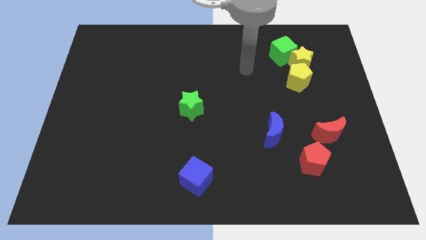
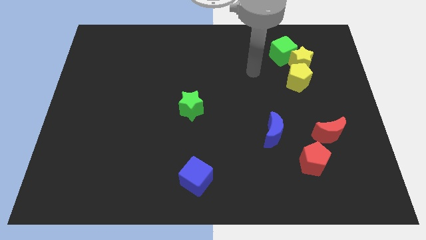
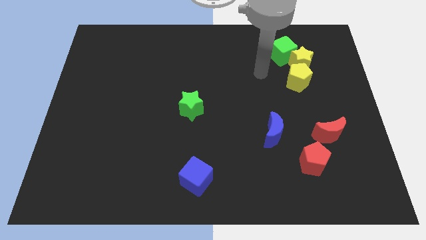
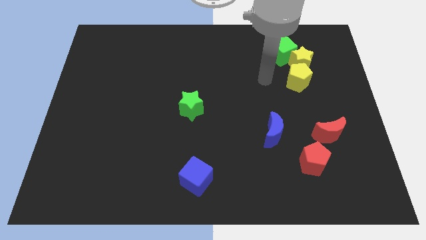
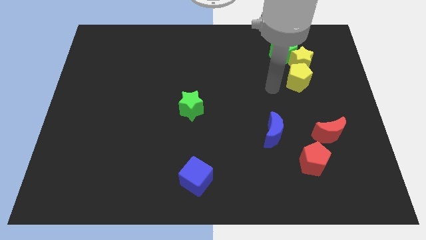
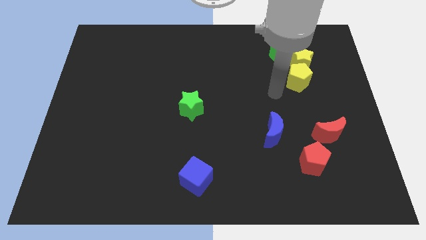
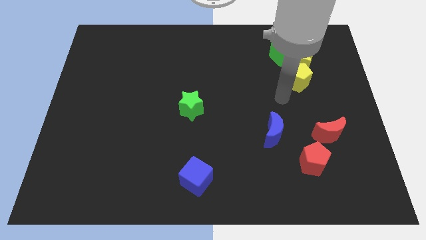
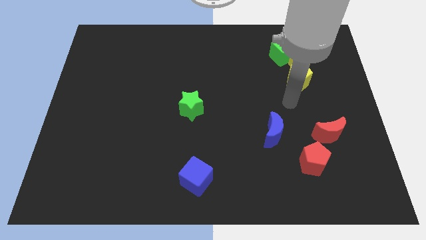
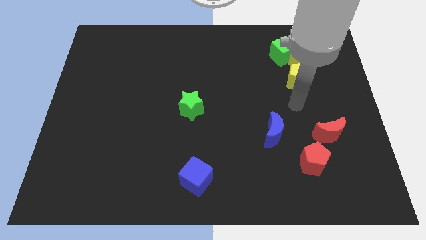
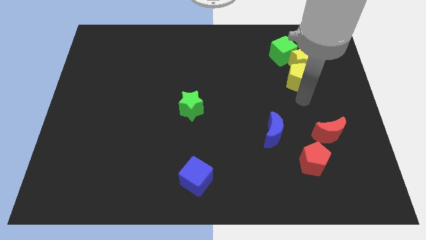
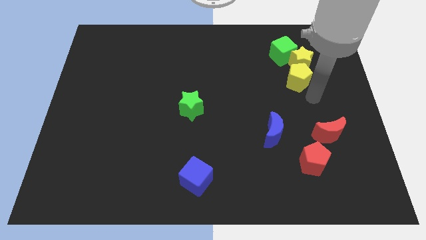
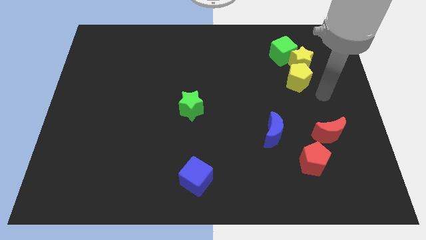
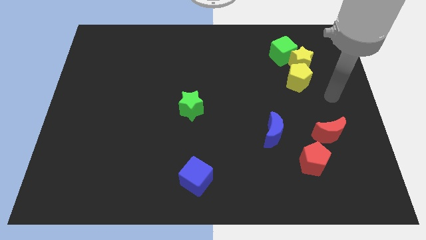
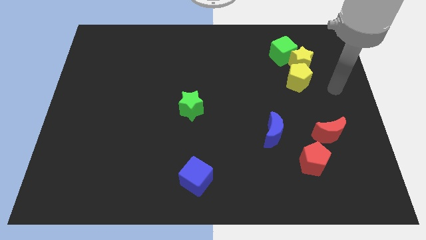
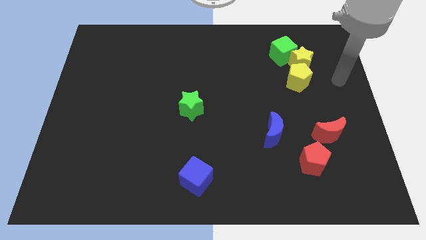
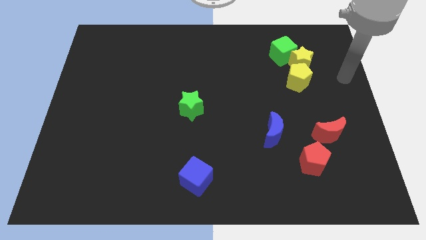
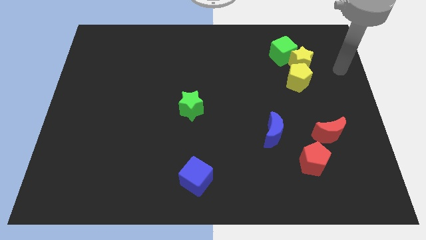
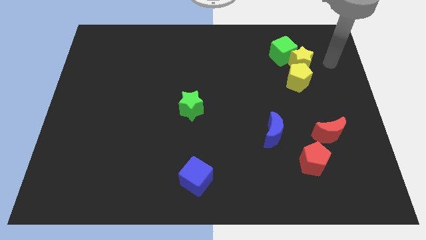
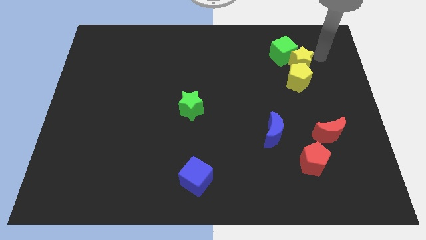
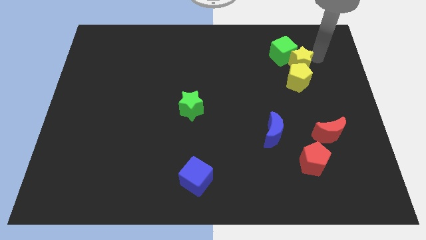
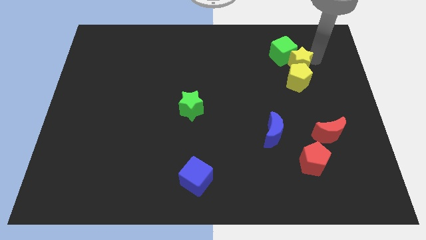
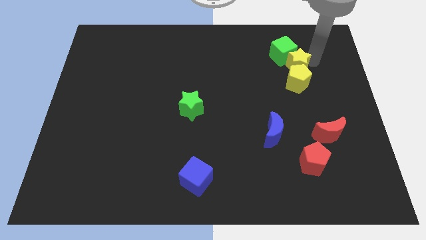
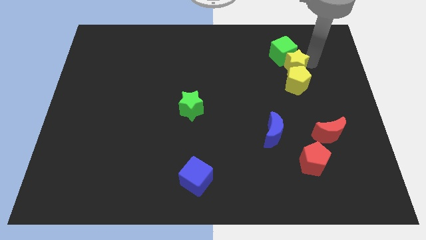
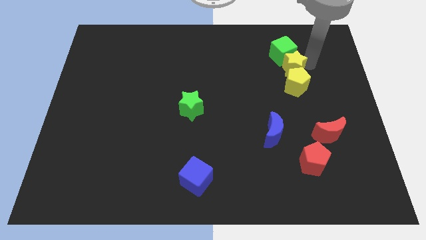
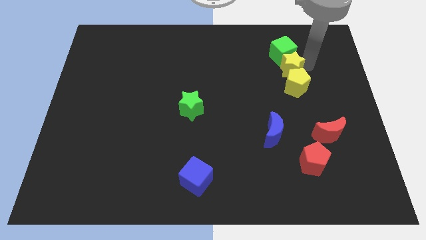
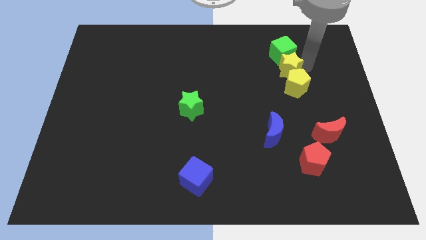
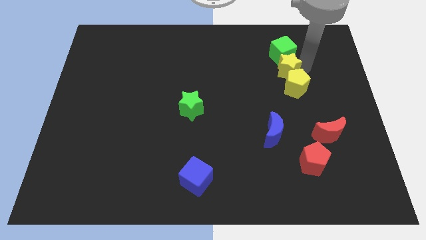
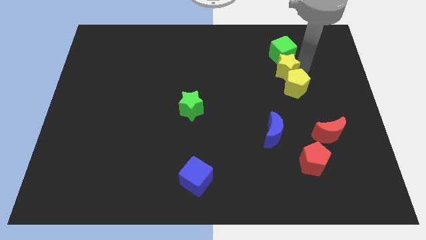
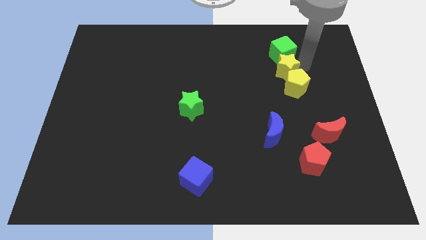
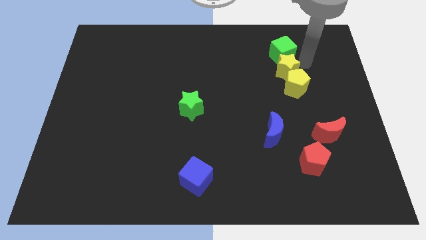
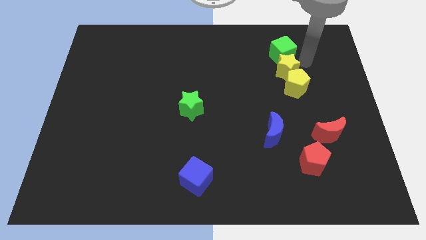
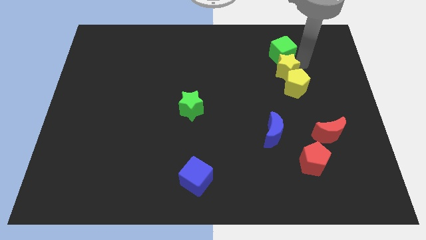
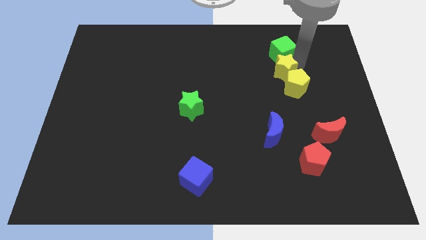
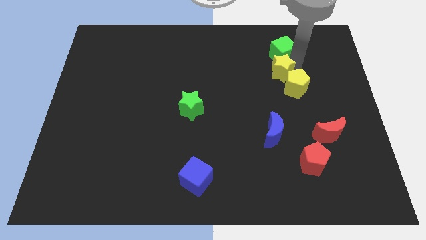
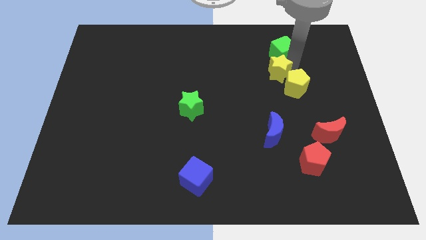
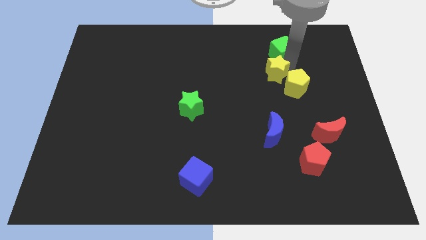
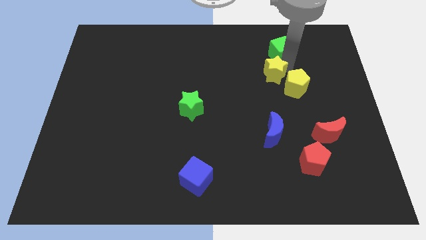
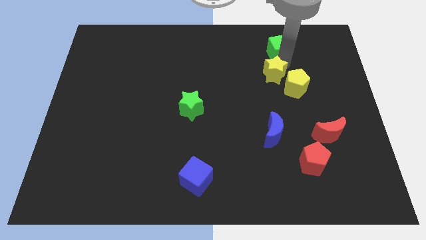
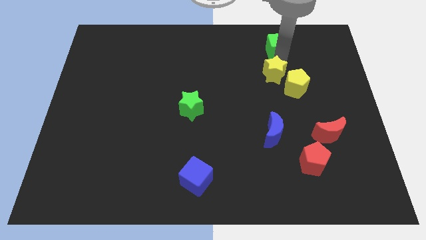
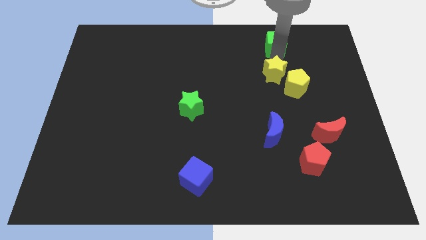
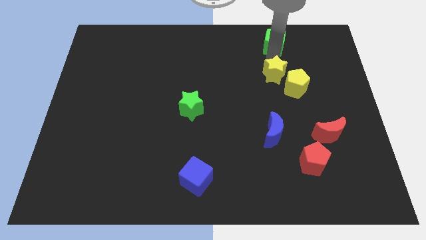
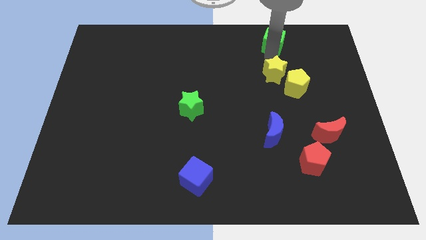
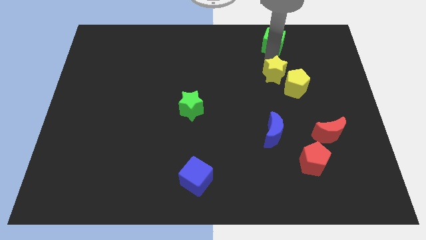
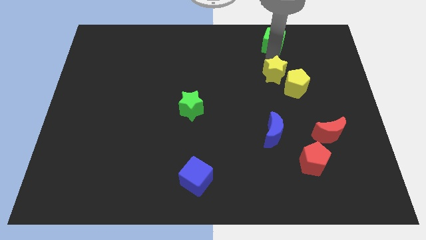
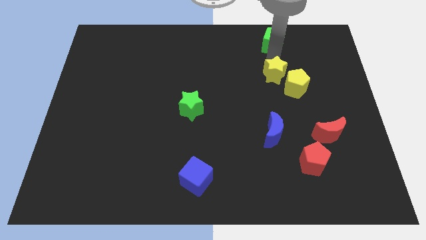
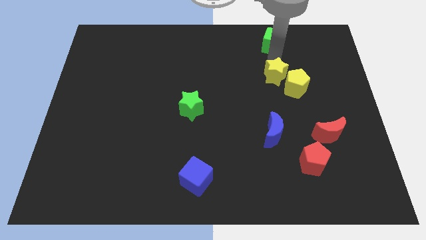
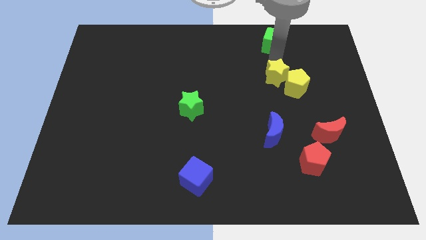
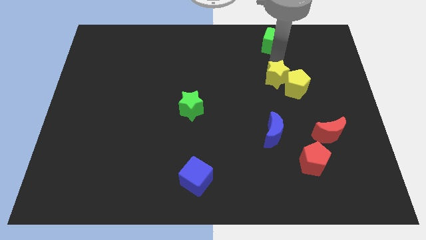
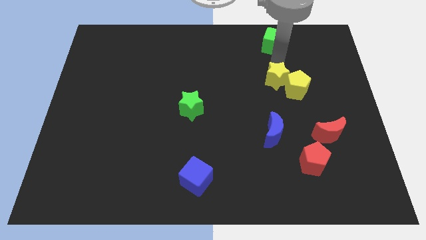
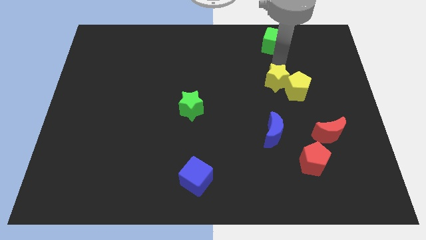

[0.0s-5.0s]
slide the yellow star above the blue moon
